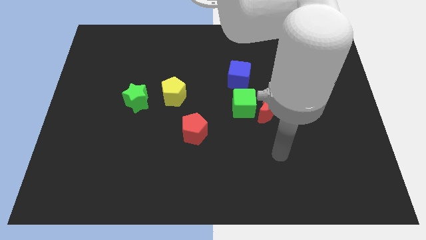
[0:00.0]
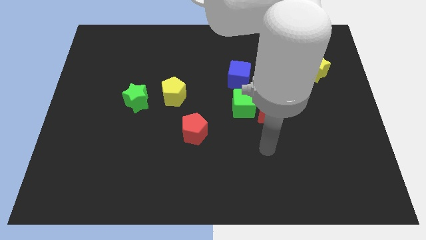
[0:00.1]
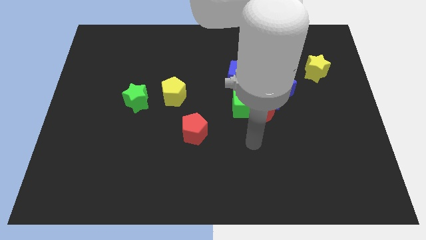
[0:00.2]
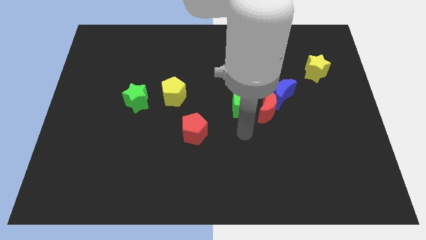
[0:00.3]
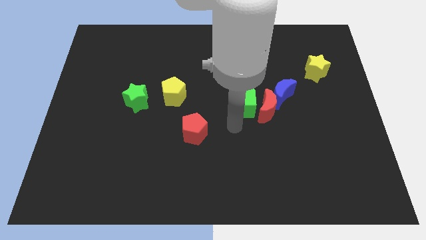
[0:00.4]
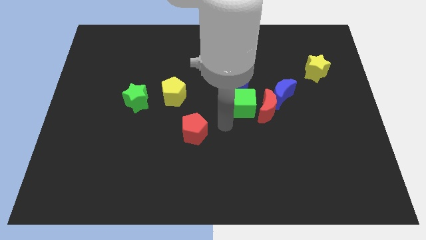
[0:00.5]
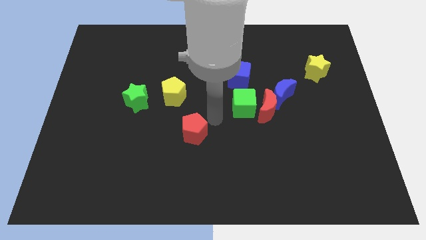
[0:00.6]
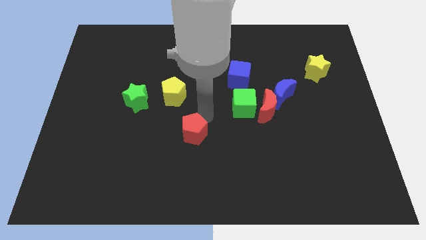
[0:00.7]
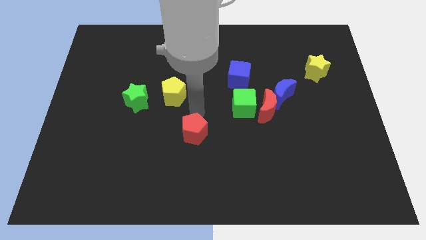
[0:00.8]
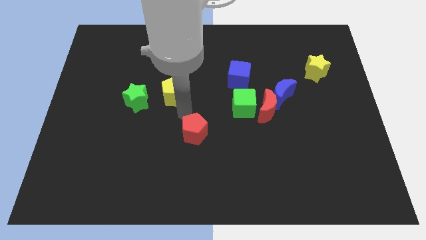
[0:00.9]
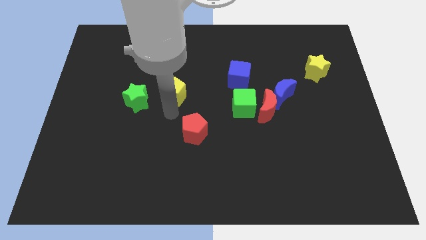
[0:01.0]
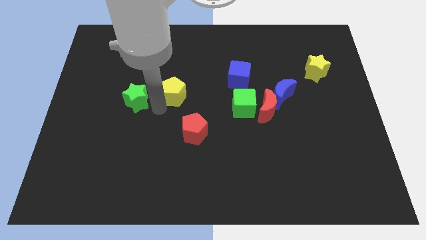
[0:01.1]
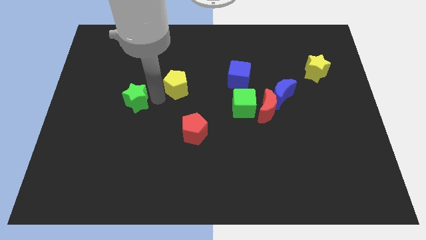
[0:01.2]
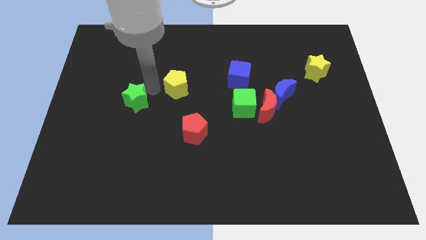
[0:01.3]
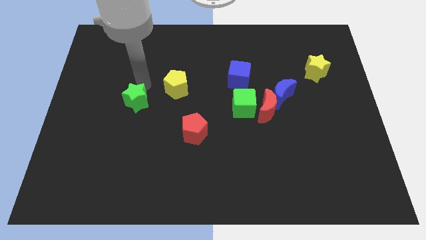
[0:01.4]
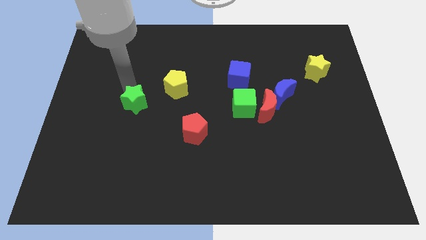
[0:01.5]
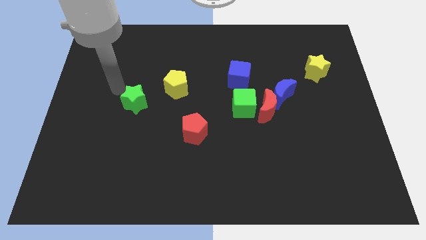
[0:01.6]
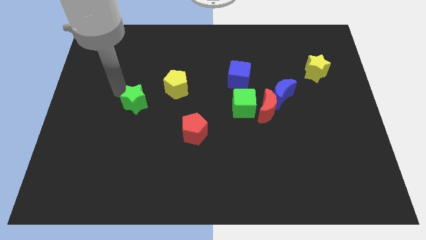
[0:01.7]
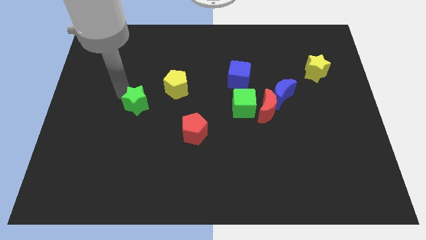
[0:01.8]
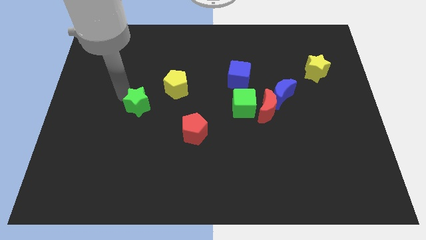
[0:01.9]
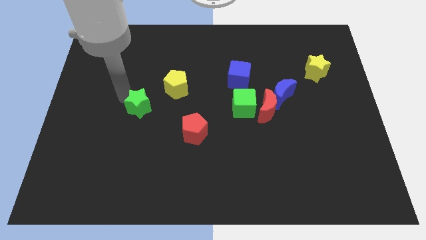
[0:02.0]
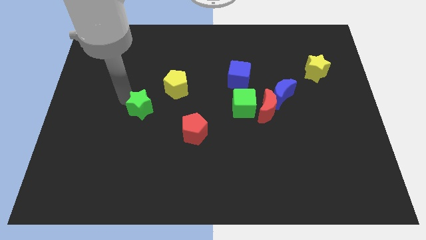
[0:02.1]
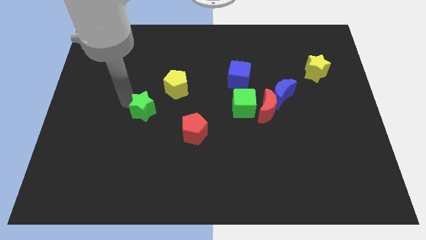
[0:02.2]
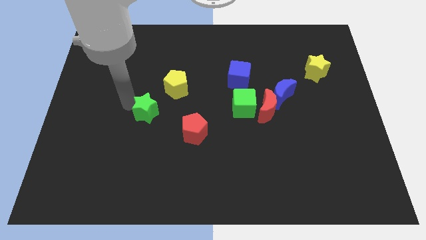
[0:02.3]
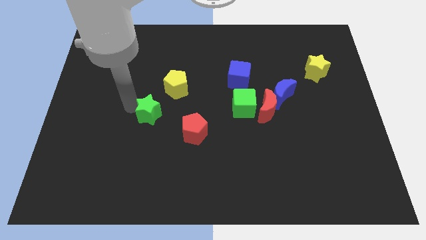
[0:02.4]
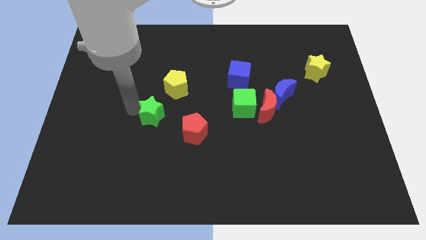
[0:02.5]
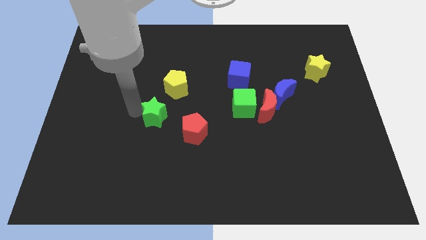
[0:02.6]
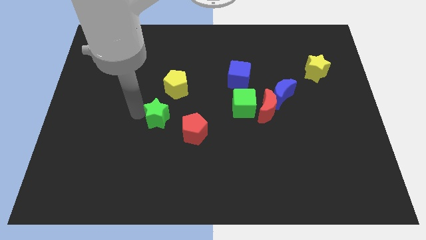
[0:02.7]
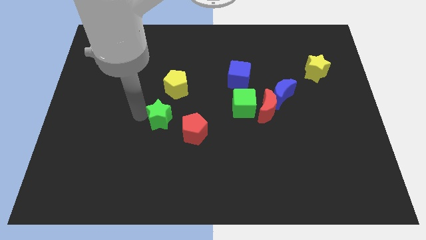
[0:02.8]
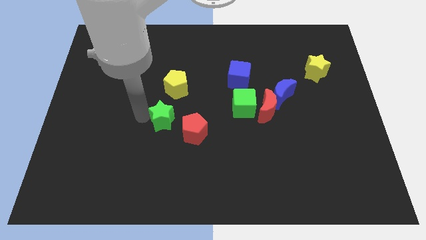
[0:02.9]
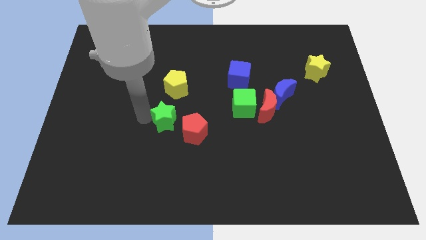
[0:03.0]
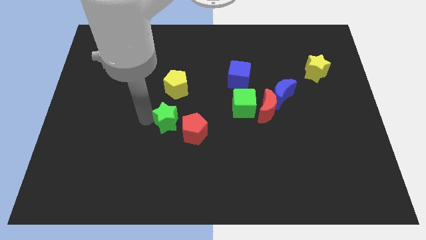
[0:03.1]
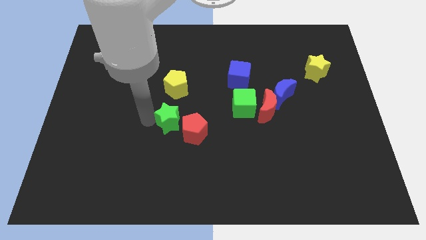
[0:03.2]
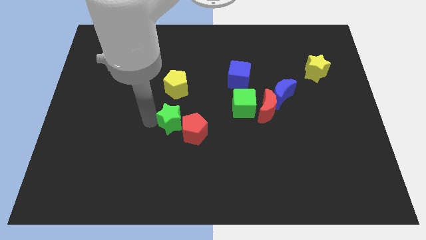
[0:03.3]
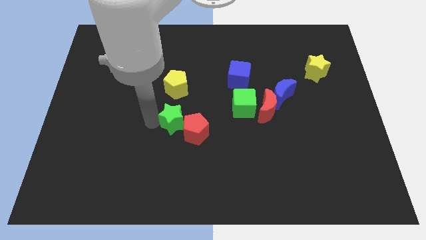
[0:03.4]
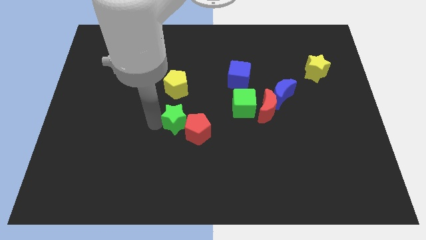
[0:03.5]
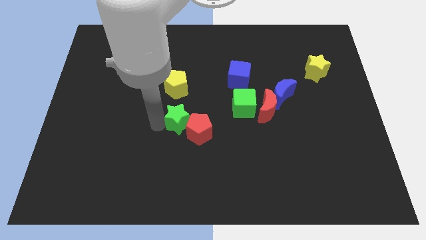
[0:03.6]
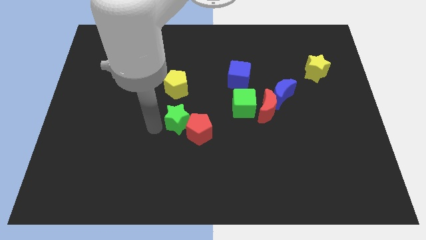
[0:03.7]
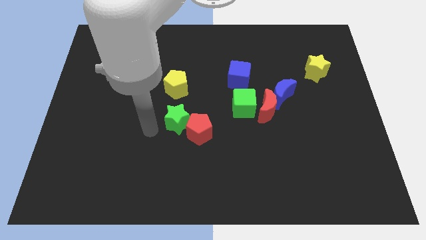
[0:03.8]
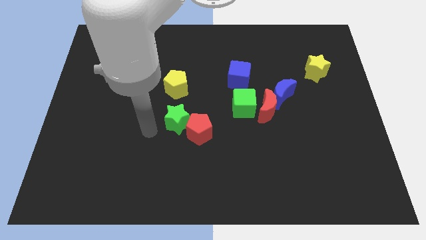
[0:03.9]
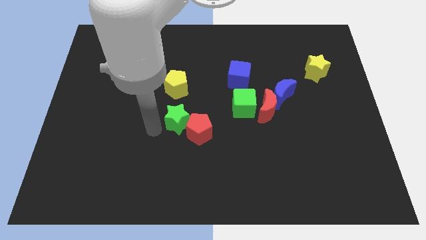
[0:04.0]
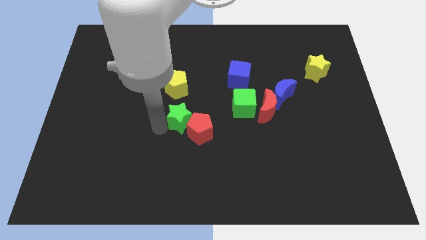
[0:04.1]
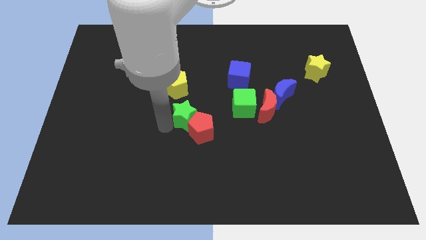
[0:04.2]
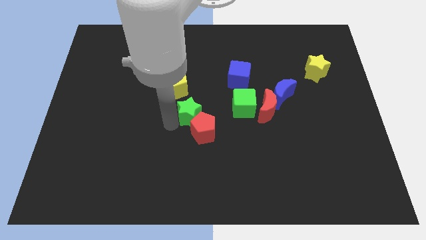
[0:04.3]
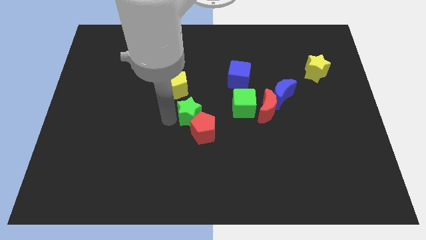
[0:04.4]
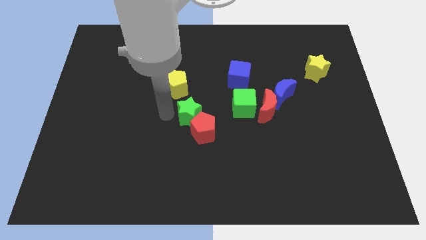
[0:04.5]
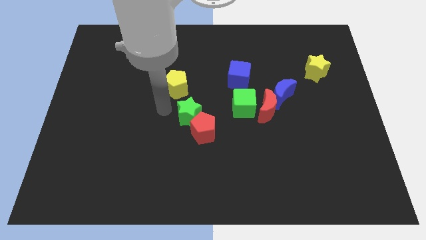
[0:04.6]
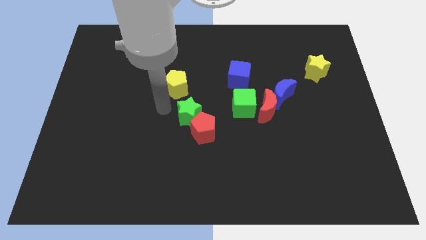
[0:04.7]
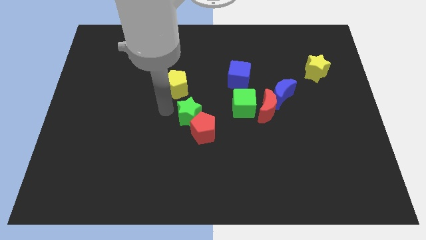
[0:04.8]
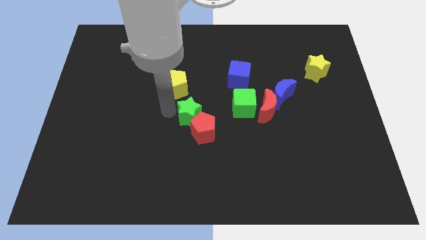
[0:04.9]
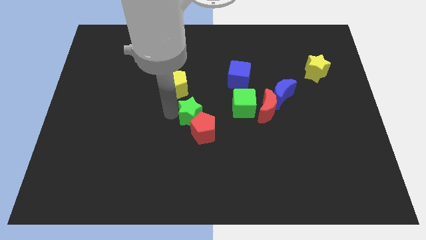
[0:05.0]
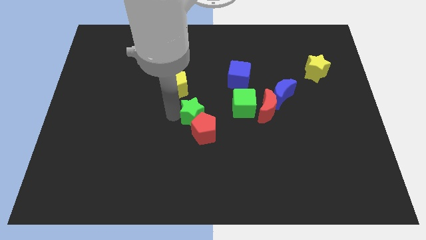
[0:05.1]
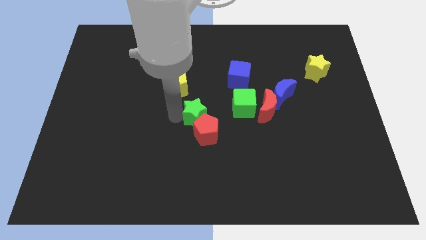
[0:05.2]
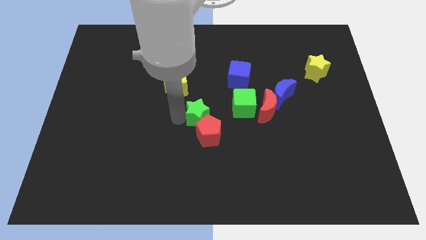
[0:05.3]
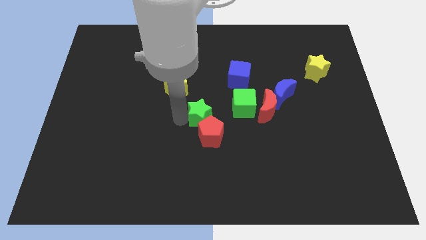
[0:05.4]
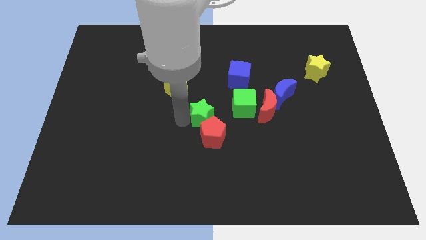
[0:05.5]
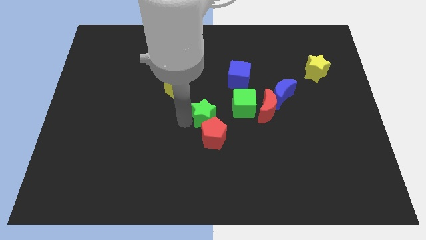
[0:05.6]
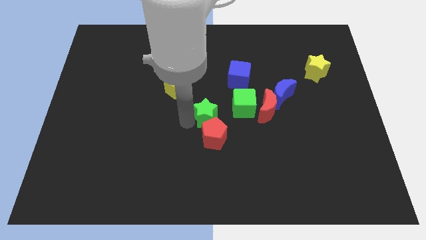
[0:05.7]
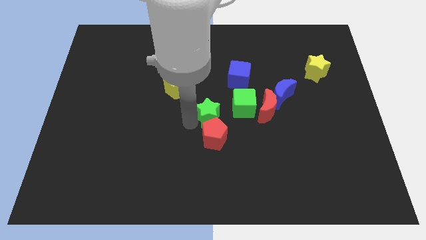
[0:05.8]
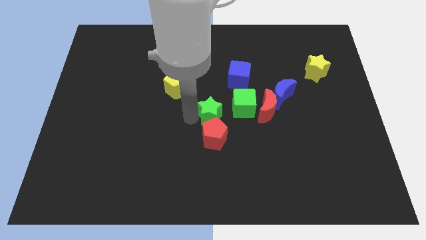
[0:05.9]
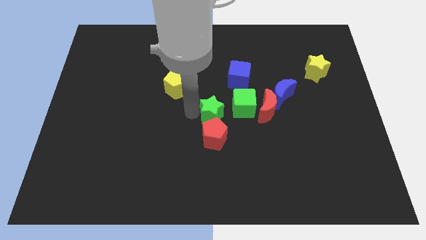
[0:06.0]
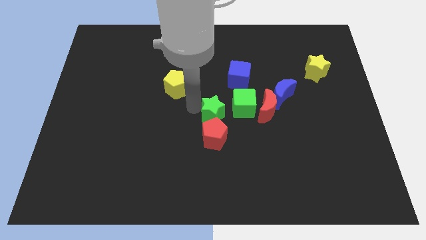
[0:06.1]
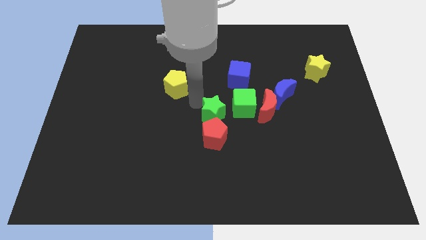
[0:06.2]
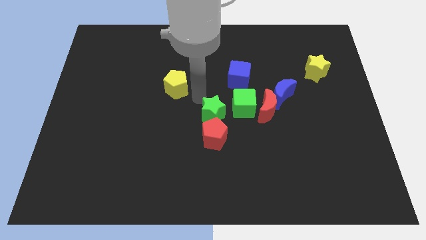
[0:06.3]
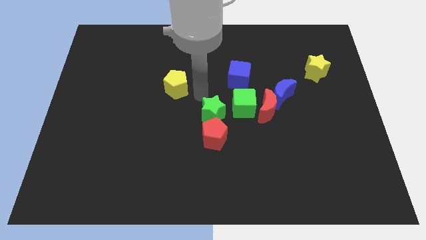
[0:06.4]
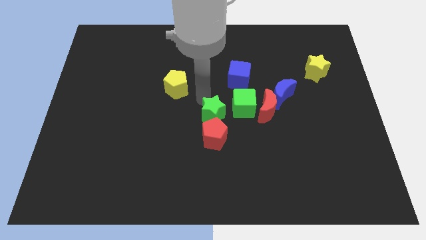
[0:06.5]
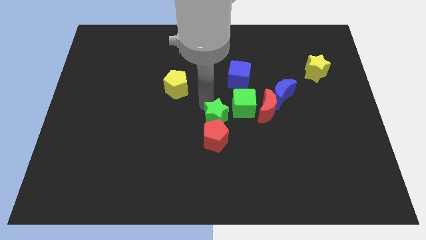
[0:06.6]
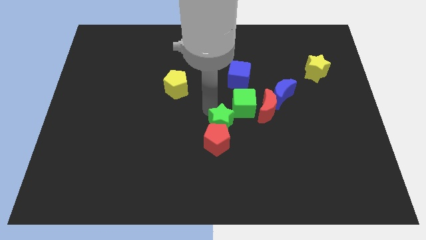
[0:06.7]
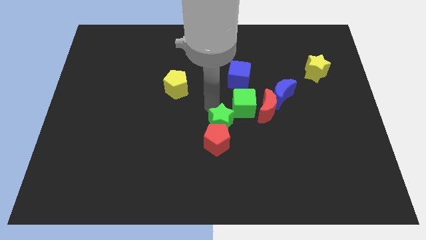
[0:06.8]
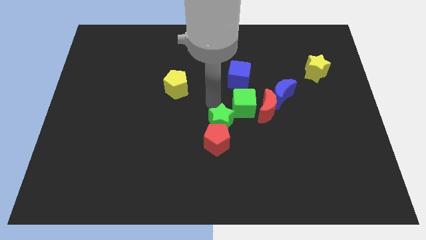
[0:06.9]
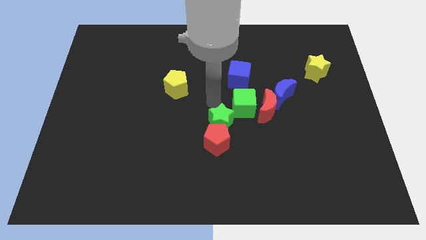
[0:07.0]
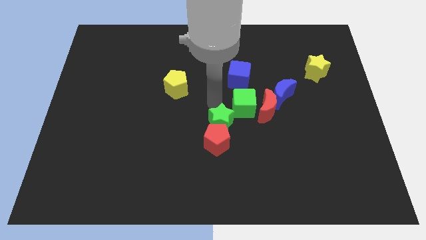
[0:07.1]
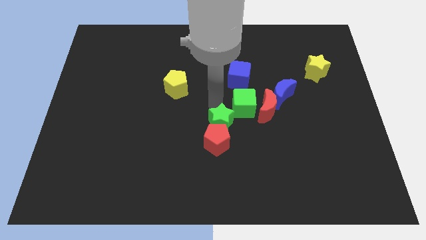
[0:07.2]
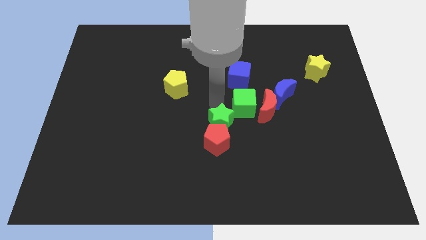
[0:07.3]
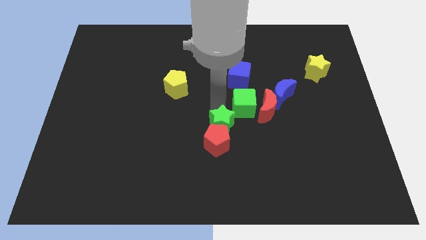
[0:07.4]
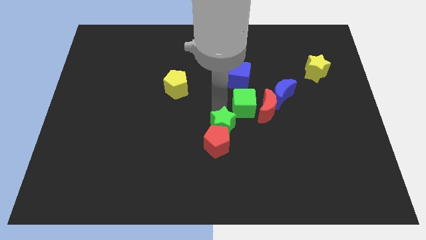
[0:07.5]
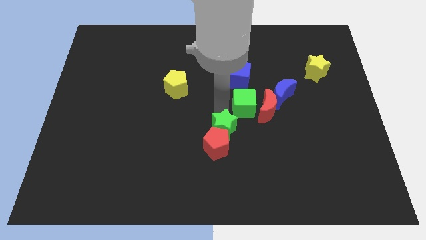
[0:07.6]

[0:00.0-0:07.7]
push the green star to the bottom of the green cube
